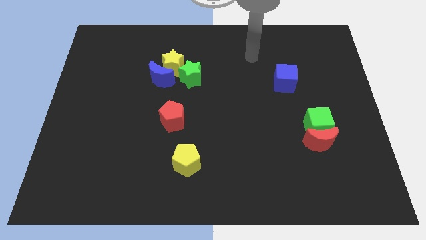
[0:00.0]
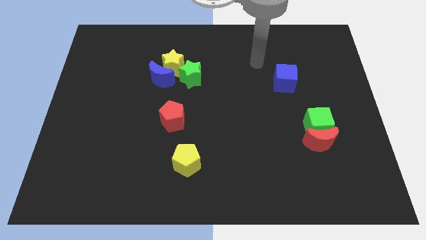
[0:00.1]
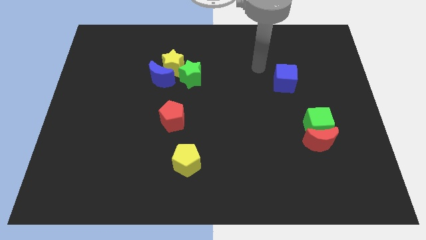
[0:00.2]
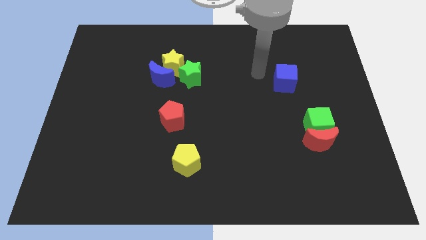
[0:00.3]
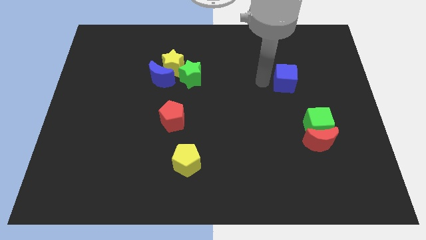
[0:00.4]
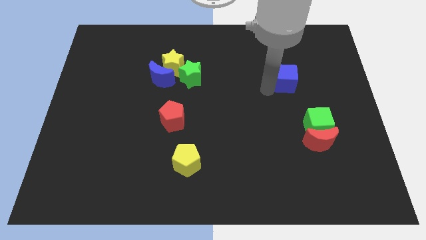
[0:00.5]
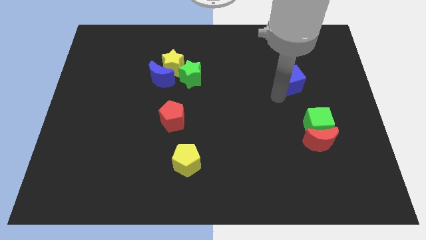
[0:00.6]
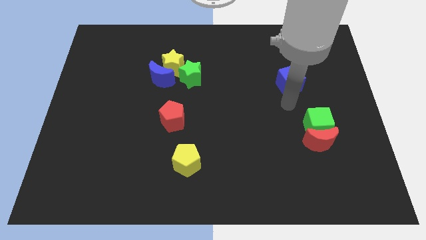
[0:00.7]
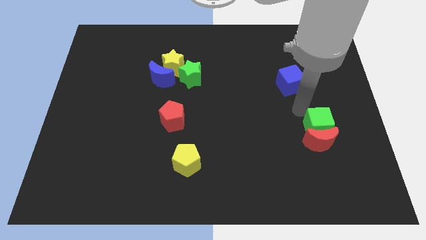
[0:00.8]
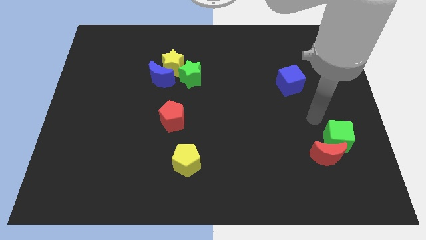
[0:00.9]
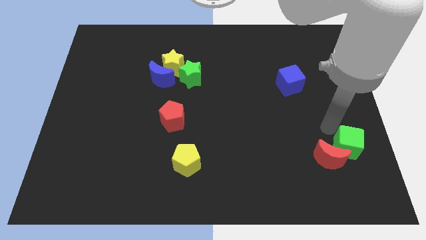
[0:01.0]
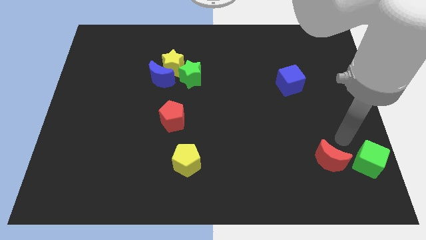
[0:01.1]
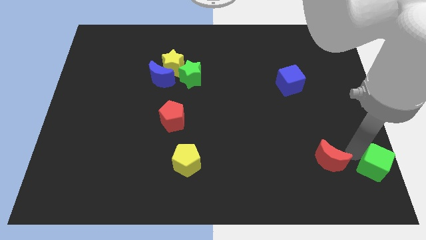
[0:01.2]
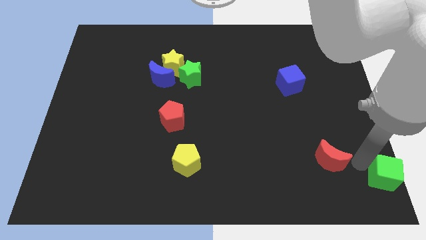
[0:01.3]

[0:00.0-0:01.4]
move the red moon away from the green cube

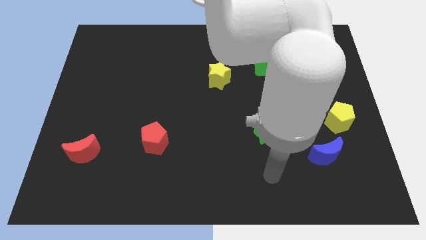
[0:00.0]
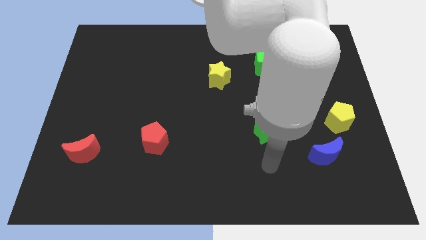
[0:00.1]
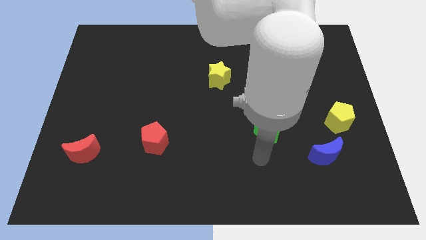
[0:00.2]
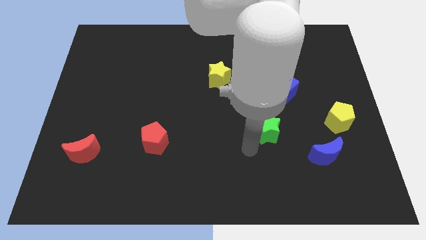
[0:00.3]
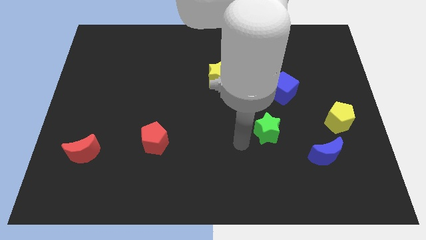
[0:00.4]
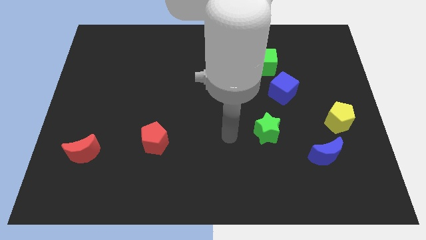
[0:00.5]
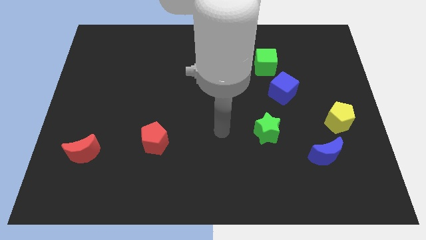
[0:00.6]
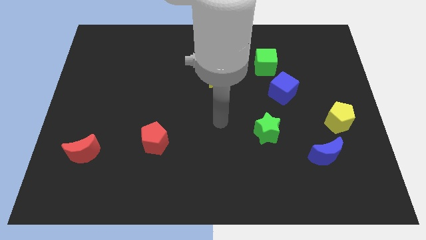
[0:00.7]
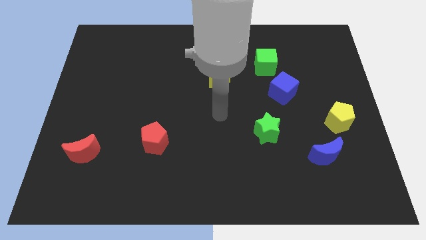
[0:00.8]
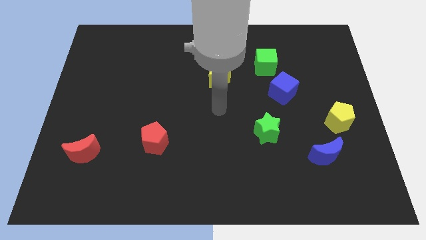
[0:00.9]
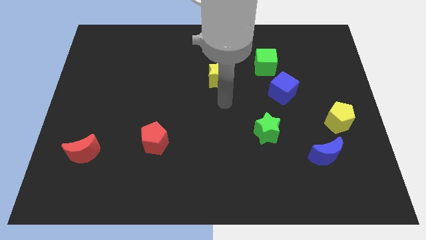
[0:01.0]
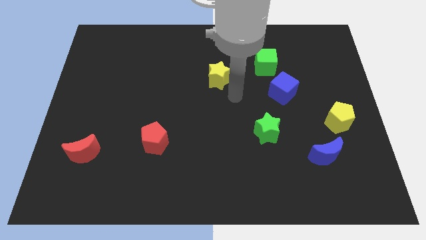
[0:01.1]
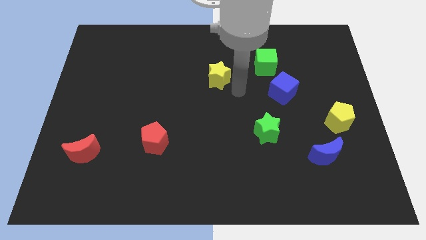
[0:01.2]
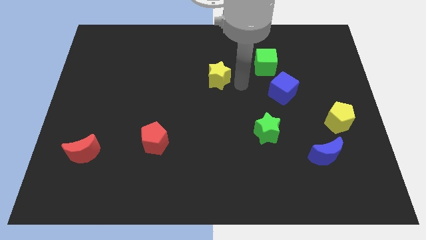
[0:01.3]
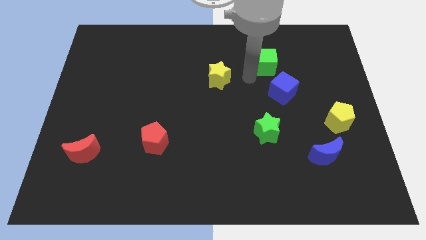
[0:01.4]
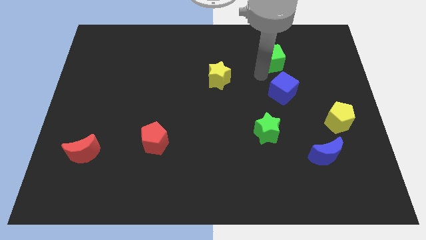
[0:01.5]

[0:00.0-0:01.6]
pull the blue cube apart from the green cube

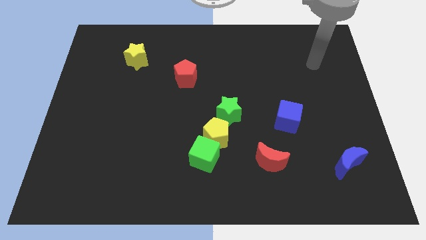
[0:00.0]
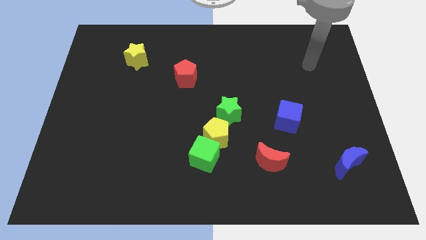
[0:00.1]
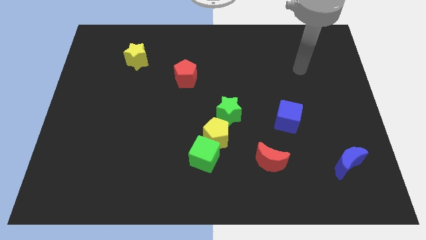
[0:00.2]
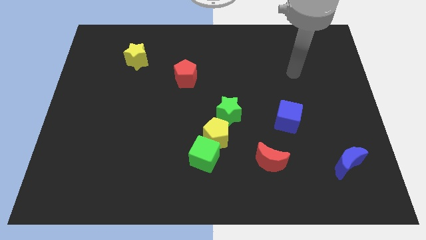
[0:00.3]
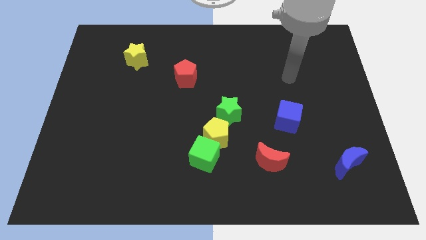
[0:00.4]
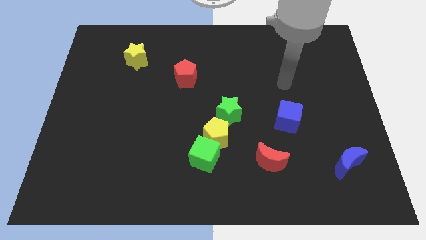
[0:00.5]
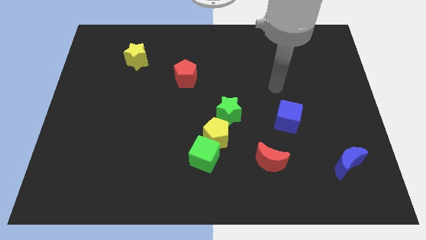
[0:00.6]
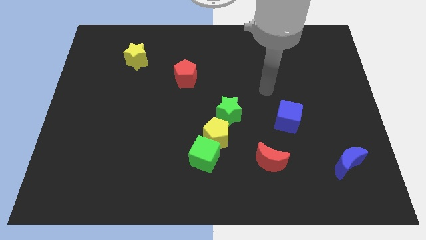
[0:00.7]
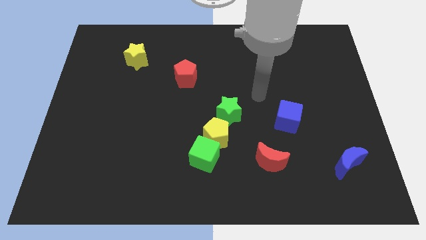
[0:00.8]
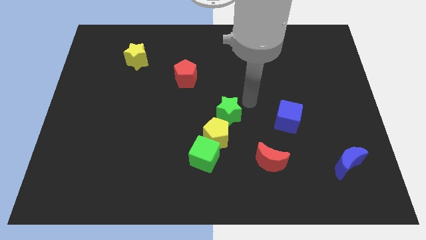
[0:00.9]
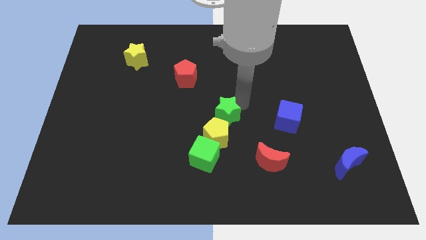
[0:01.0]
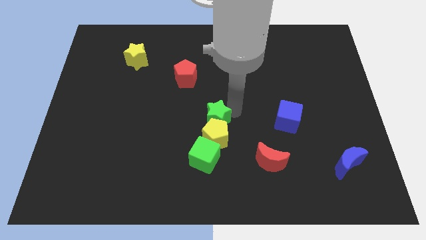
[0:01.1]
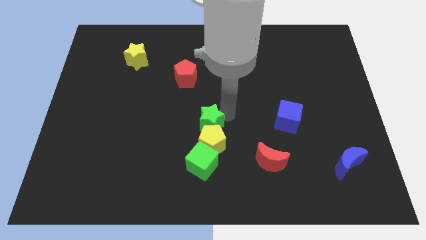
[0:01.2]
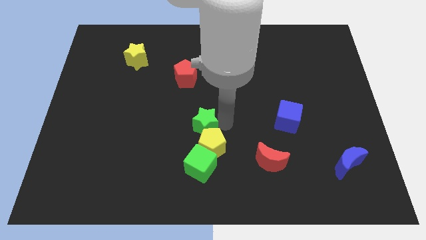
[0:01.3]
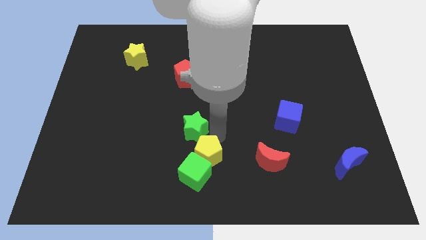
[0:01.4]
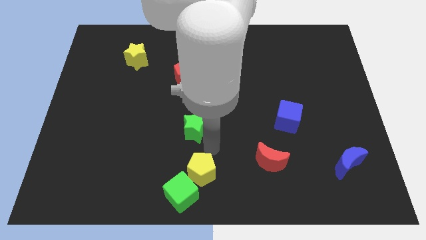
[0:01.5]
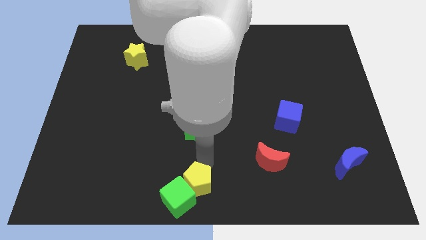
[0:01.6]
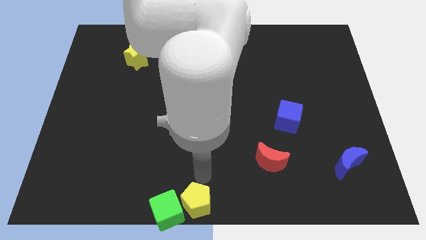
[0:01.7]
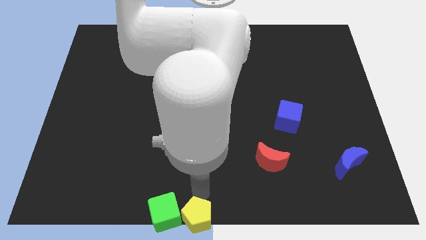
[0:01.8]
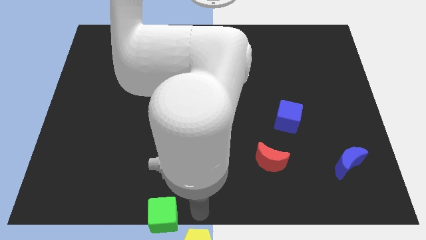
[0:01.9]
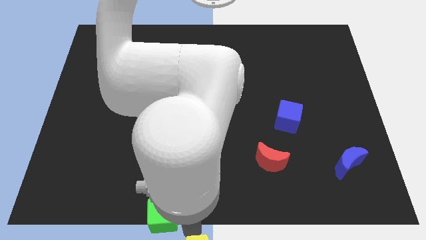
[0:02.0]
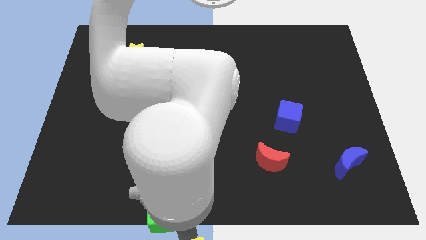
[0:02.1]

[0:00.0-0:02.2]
move the green cube away from the yellow pentagon

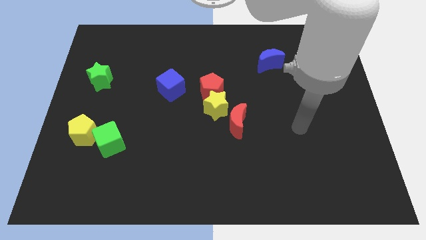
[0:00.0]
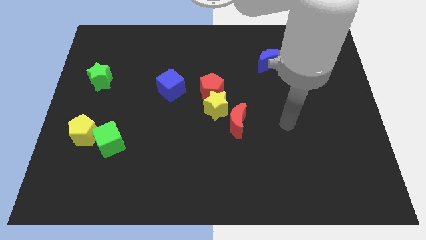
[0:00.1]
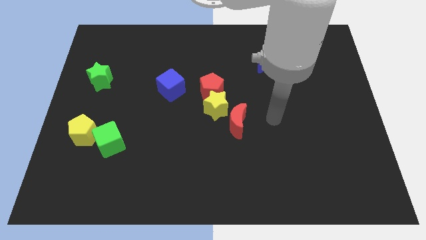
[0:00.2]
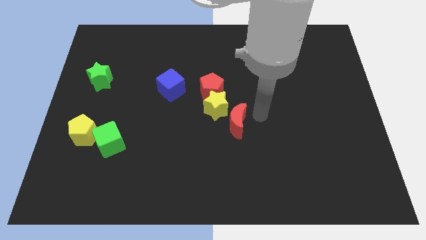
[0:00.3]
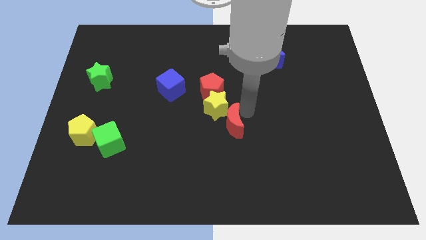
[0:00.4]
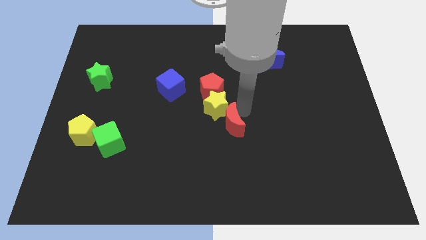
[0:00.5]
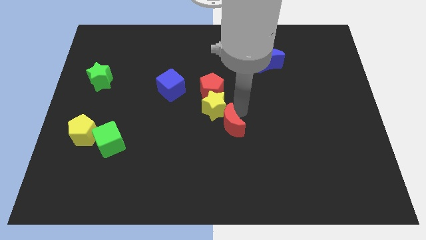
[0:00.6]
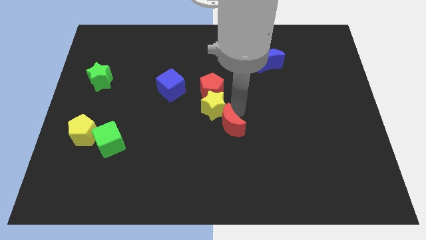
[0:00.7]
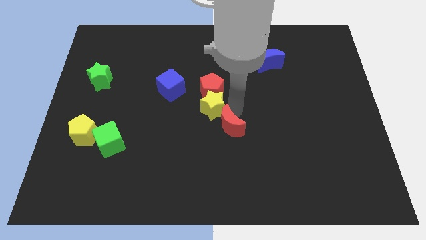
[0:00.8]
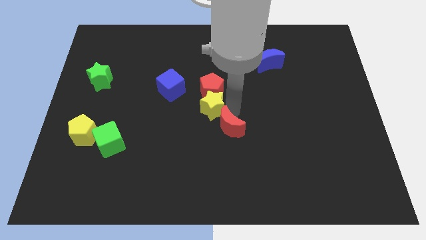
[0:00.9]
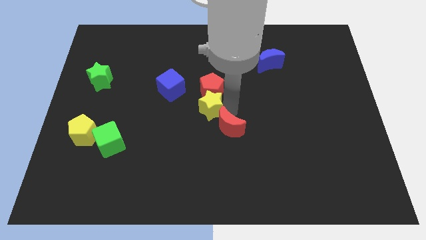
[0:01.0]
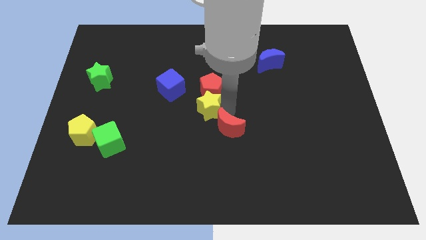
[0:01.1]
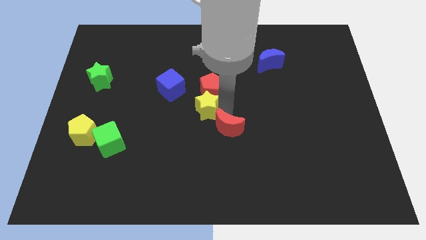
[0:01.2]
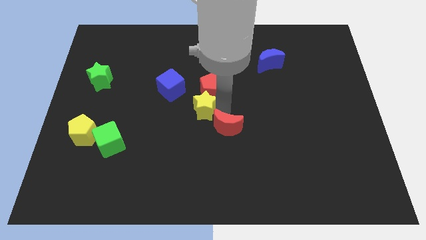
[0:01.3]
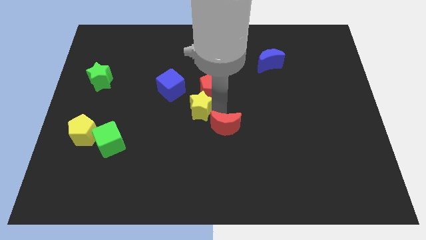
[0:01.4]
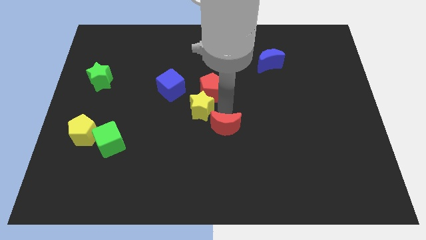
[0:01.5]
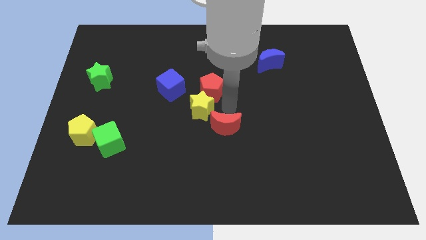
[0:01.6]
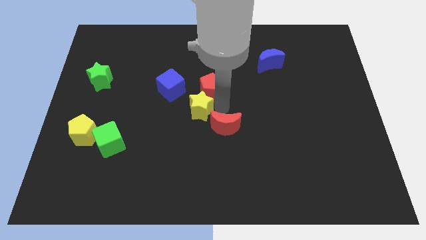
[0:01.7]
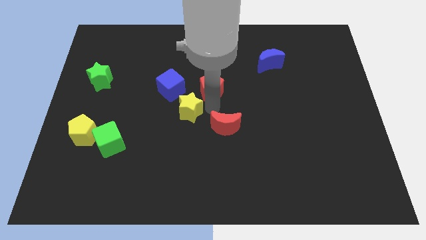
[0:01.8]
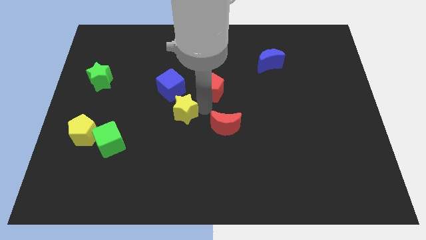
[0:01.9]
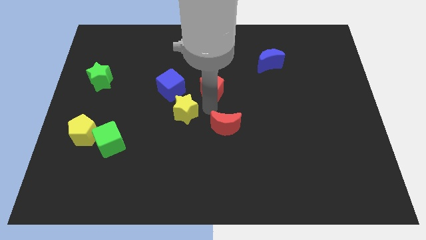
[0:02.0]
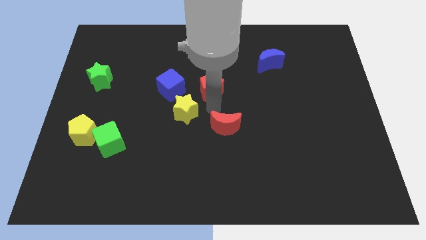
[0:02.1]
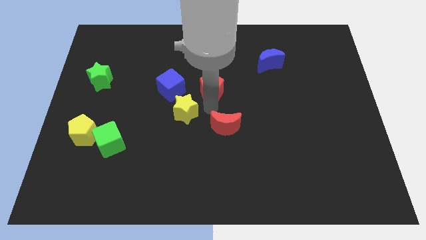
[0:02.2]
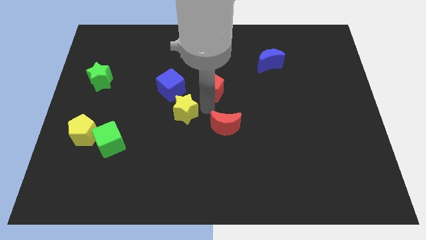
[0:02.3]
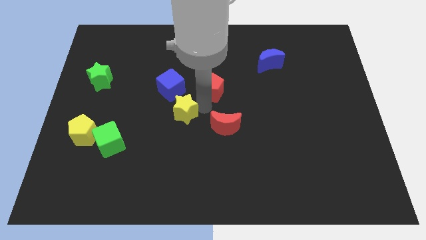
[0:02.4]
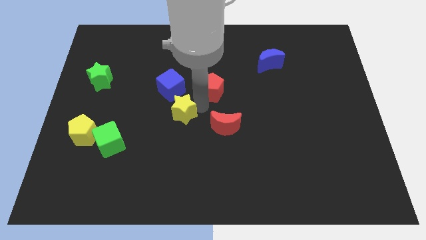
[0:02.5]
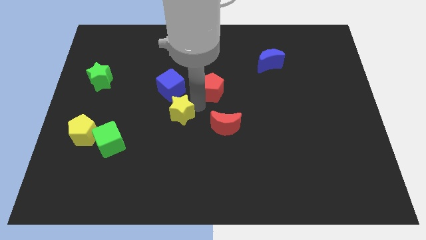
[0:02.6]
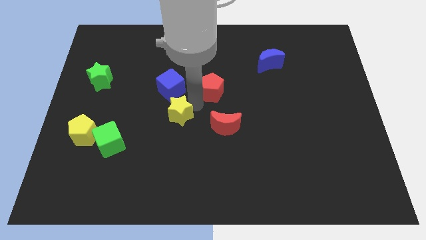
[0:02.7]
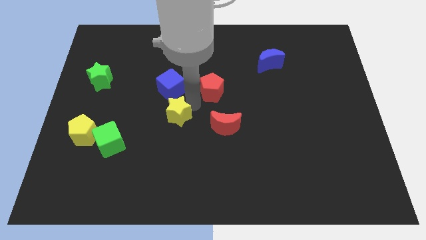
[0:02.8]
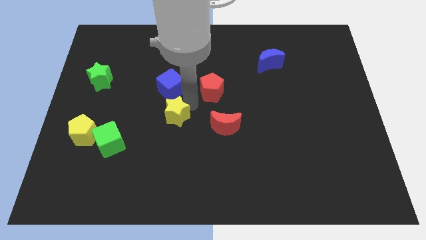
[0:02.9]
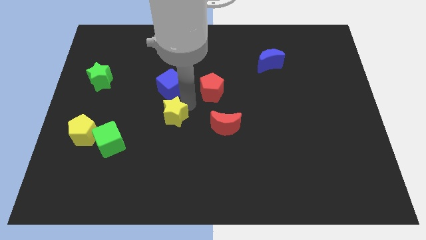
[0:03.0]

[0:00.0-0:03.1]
pull the yellow star apart from the red pentagon and red moon

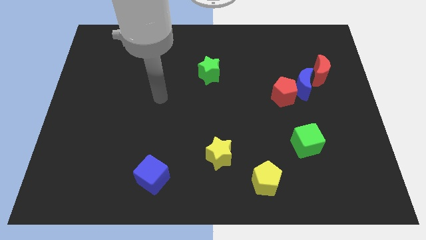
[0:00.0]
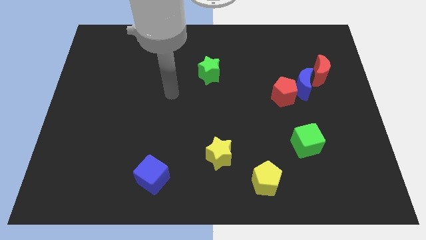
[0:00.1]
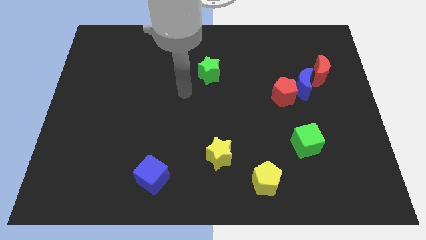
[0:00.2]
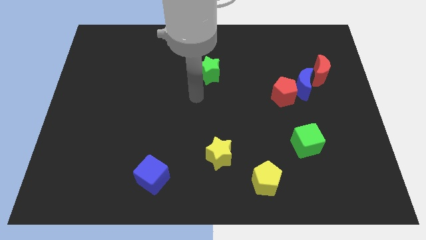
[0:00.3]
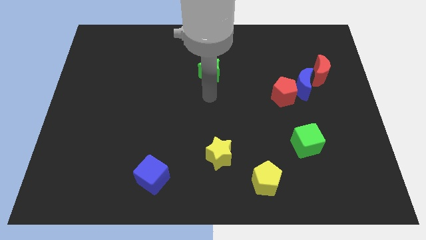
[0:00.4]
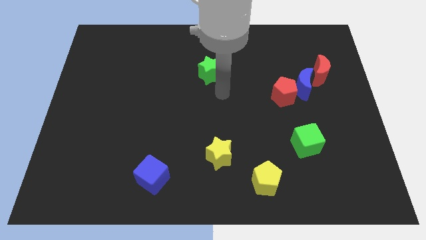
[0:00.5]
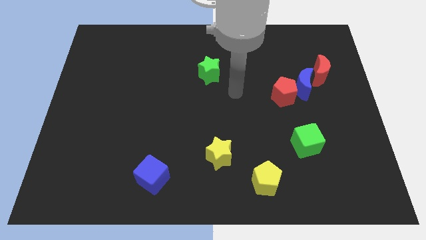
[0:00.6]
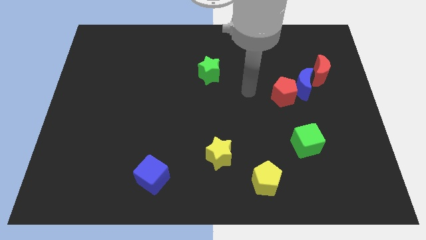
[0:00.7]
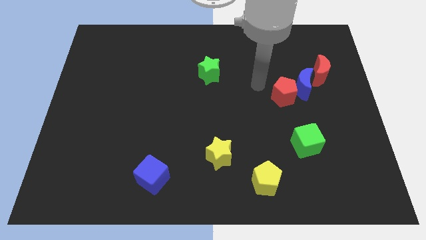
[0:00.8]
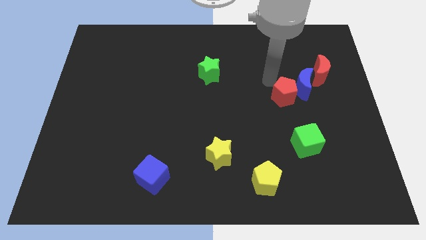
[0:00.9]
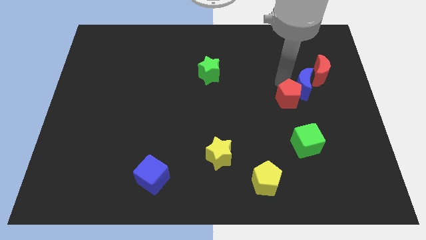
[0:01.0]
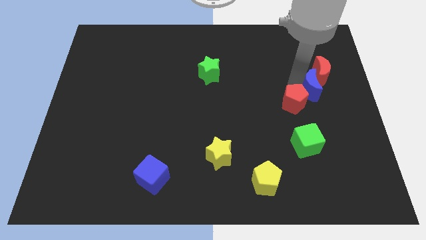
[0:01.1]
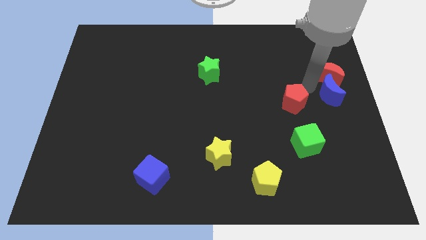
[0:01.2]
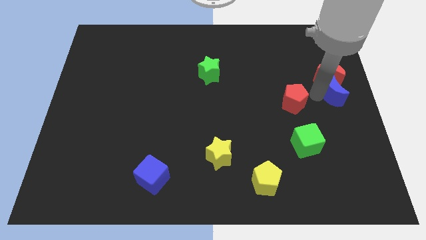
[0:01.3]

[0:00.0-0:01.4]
separate the red pentagon from the blue moon
